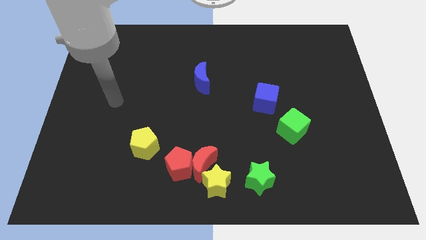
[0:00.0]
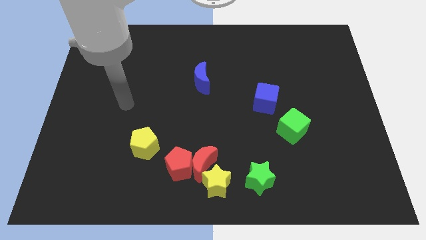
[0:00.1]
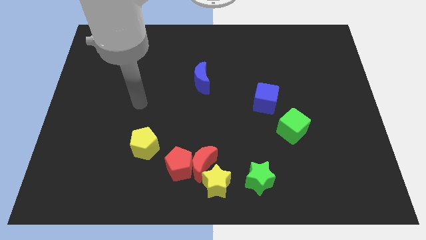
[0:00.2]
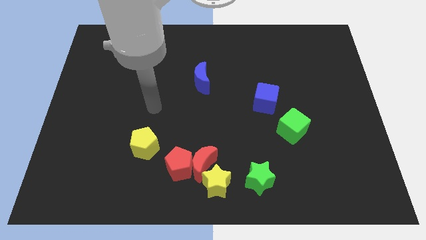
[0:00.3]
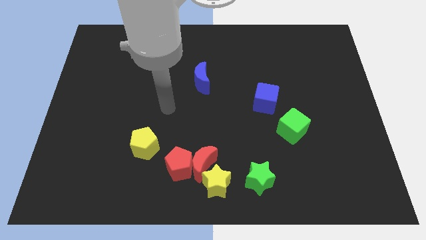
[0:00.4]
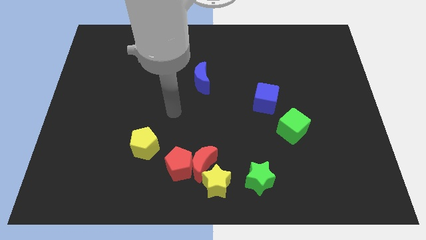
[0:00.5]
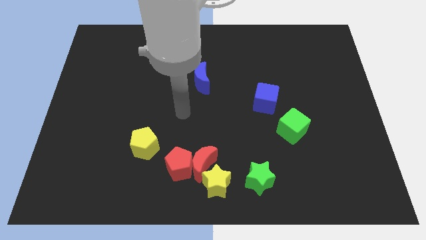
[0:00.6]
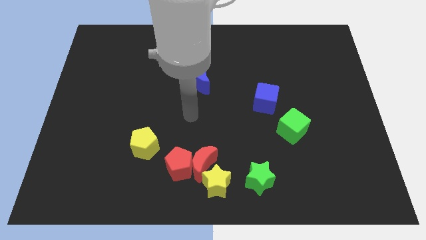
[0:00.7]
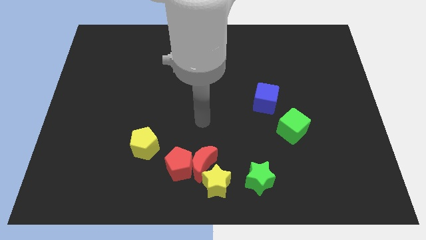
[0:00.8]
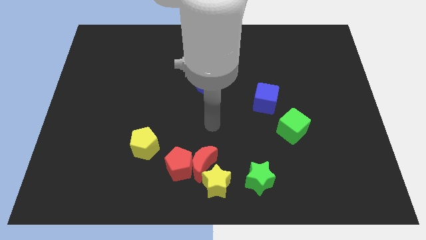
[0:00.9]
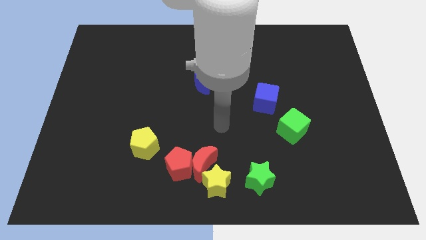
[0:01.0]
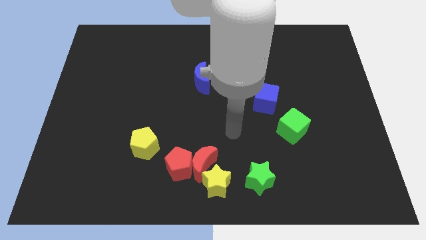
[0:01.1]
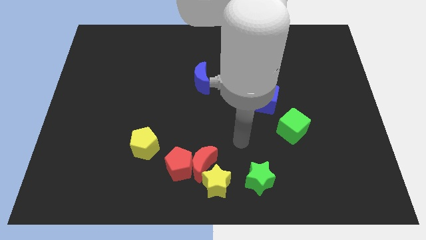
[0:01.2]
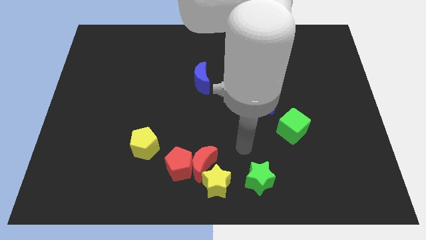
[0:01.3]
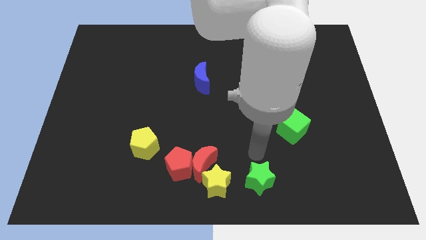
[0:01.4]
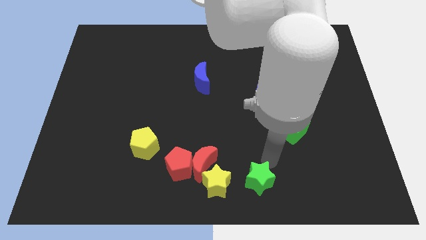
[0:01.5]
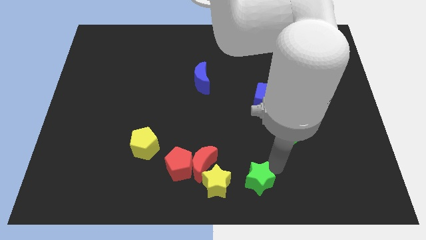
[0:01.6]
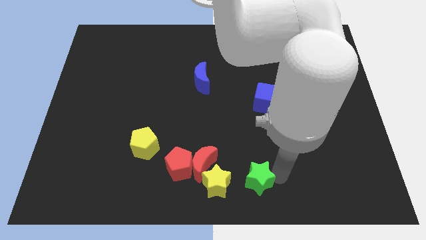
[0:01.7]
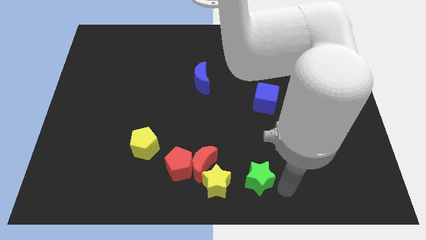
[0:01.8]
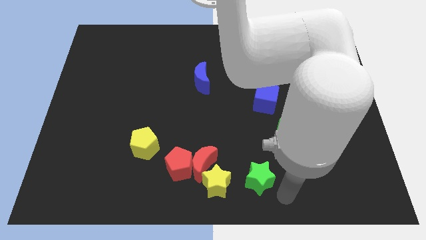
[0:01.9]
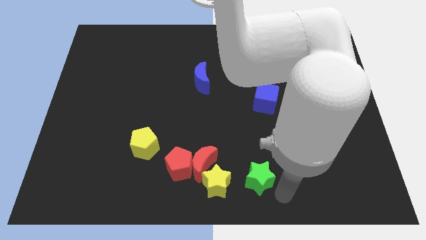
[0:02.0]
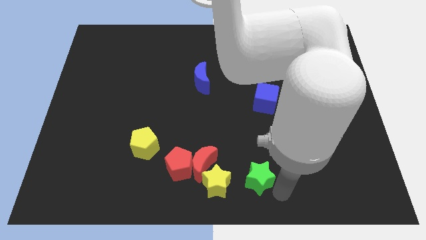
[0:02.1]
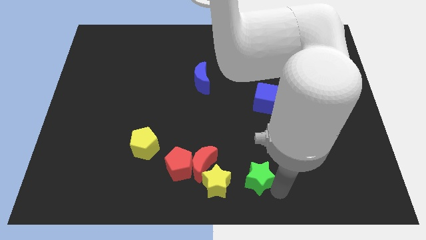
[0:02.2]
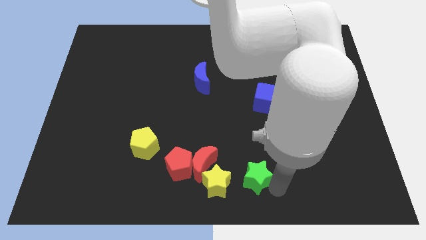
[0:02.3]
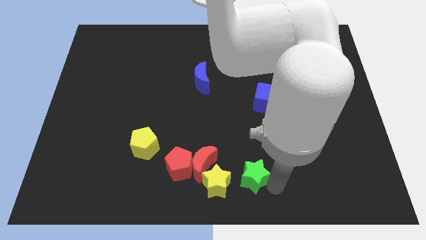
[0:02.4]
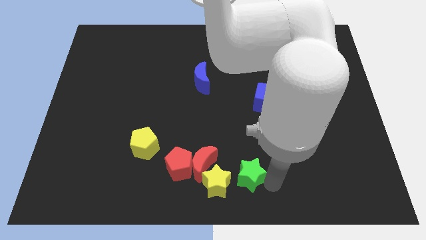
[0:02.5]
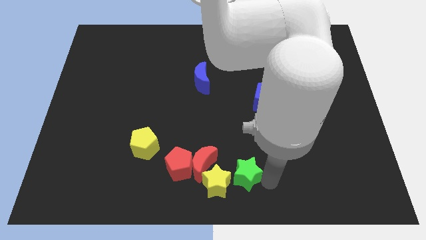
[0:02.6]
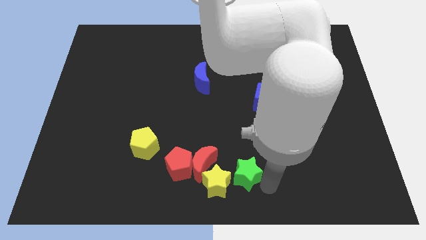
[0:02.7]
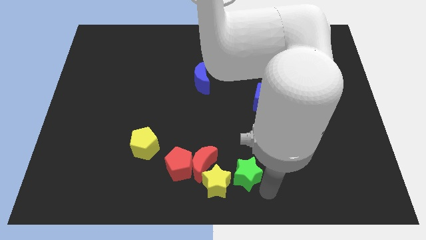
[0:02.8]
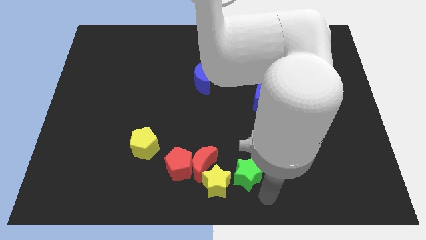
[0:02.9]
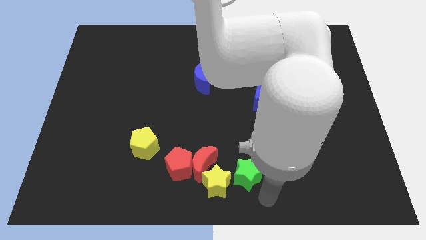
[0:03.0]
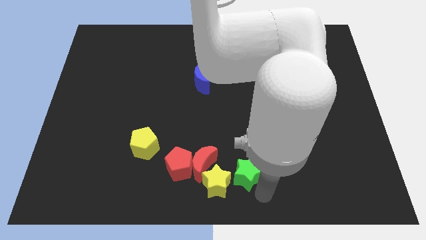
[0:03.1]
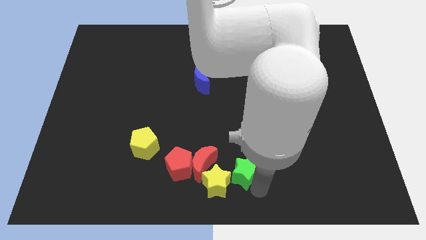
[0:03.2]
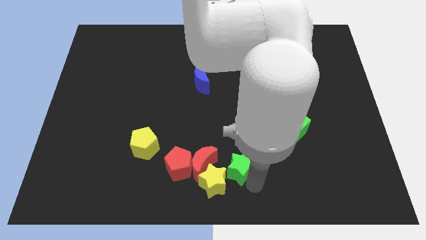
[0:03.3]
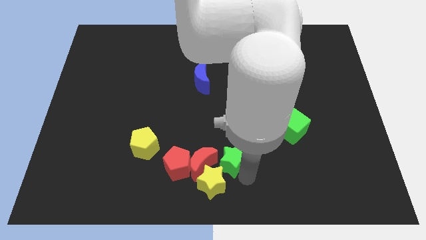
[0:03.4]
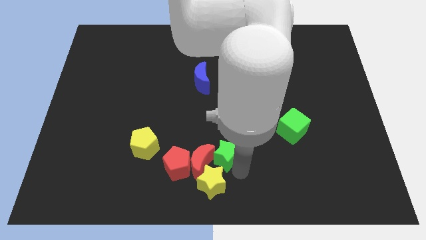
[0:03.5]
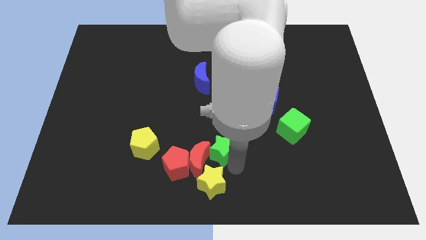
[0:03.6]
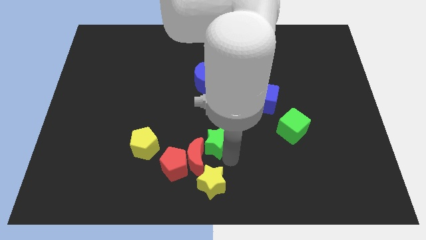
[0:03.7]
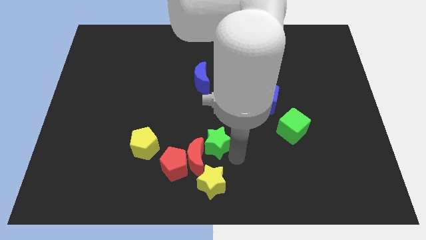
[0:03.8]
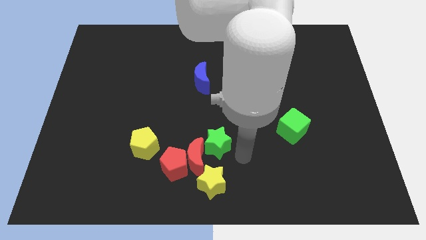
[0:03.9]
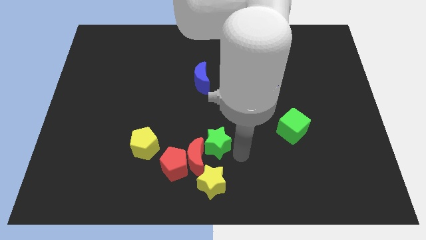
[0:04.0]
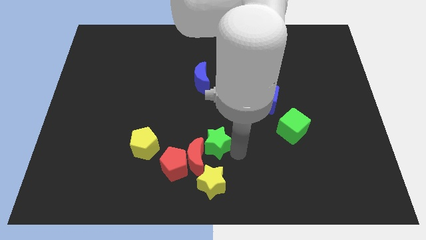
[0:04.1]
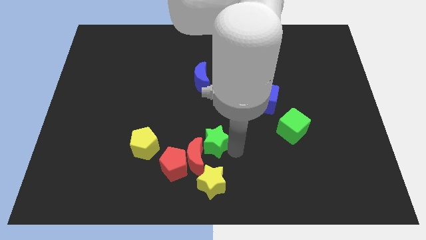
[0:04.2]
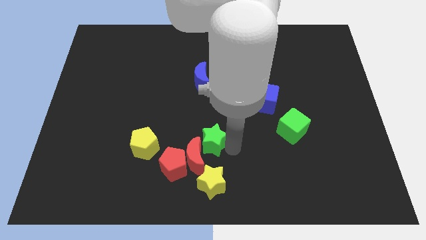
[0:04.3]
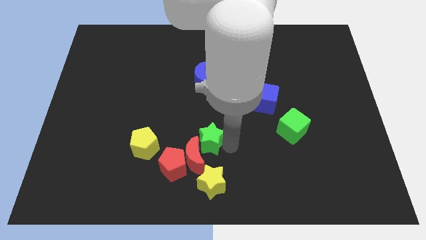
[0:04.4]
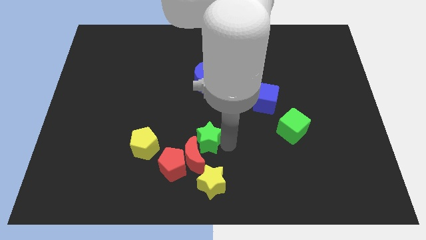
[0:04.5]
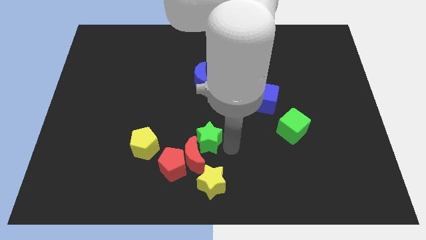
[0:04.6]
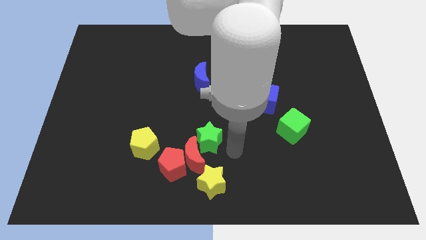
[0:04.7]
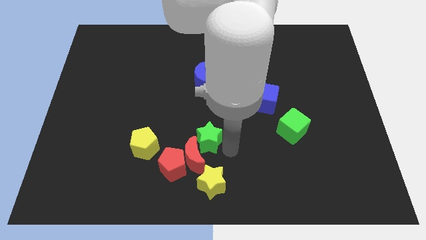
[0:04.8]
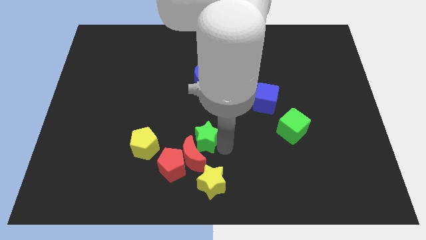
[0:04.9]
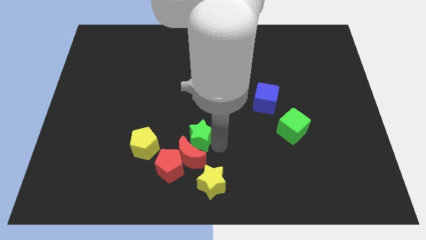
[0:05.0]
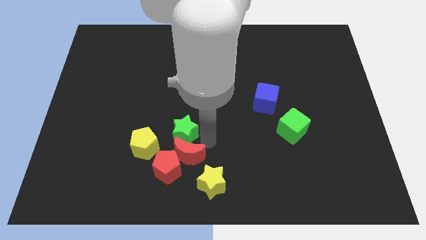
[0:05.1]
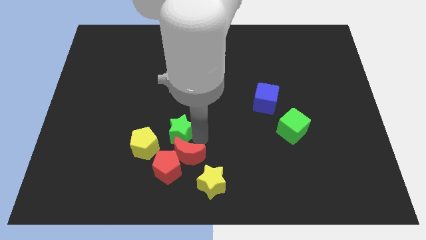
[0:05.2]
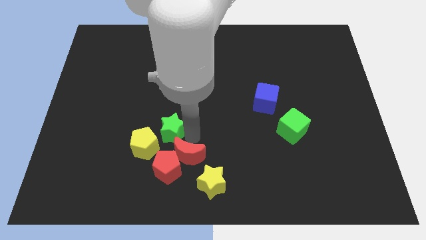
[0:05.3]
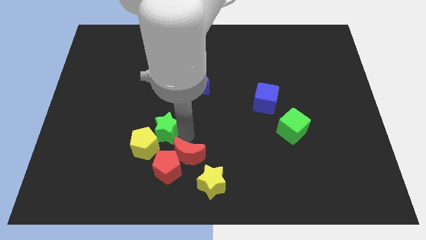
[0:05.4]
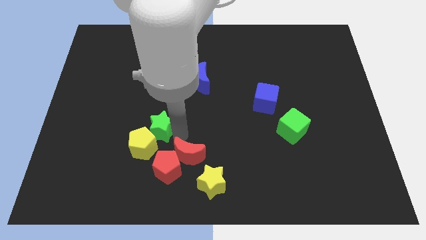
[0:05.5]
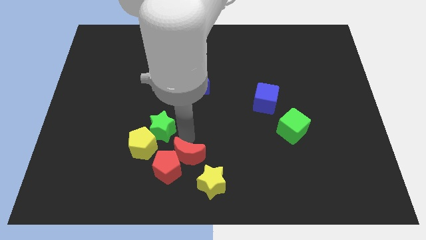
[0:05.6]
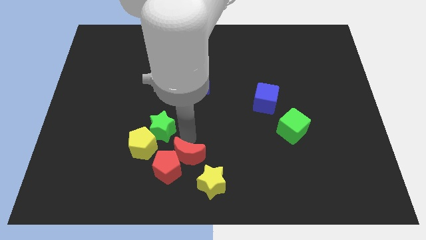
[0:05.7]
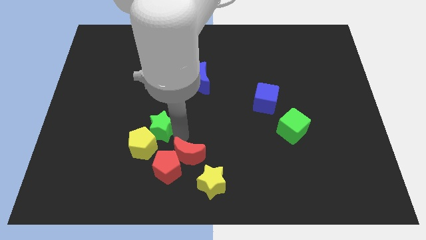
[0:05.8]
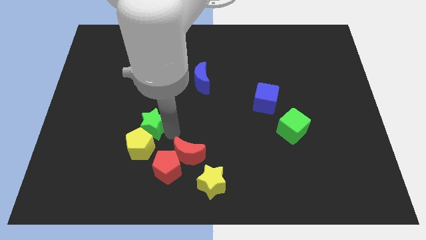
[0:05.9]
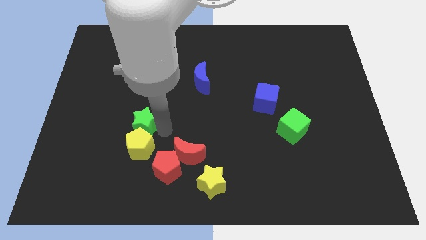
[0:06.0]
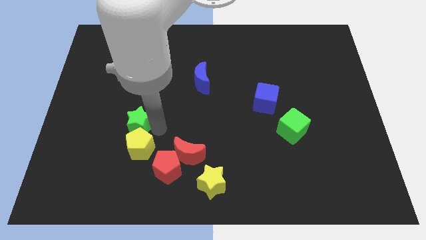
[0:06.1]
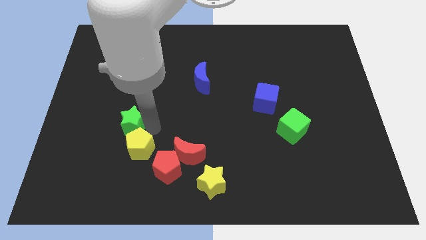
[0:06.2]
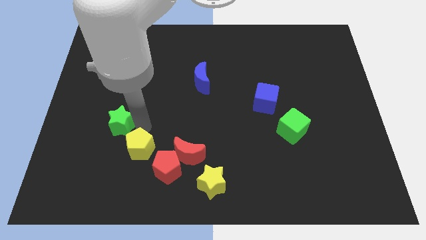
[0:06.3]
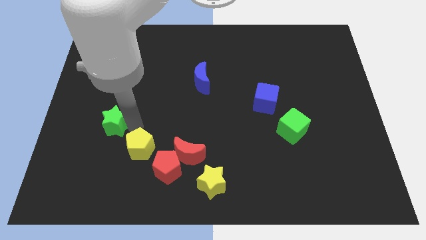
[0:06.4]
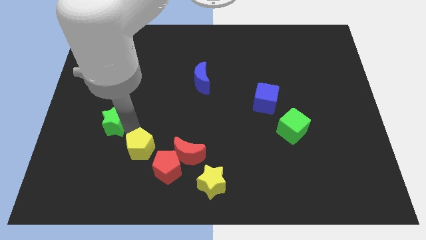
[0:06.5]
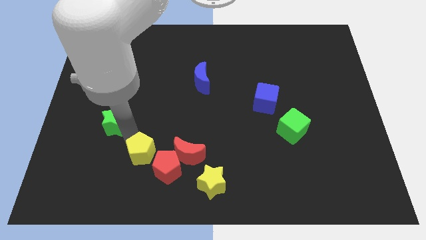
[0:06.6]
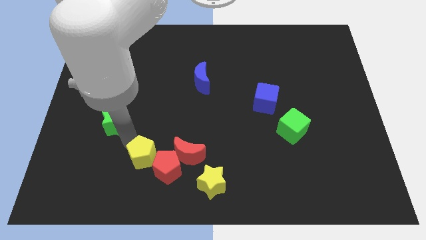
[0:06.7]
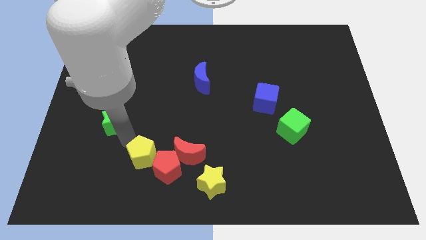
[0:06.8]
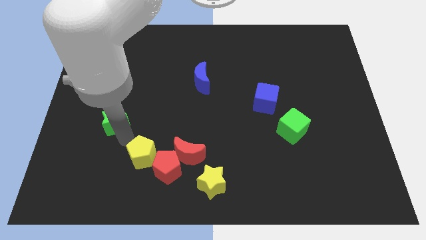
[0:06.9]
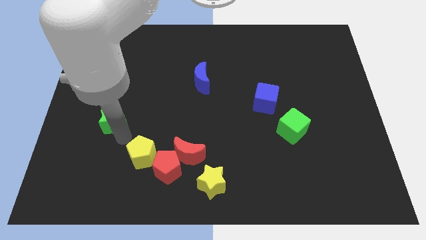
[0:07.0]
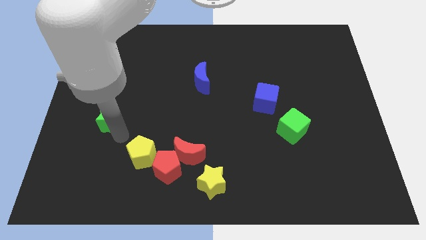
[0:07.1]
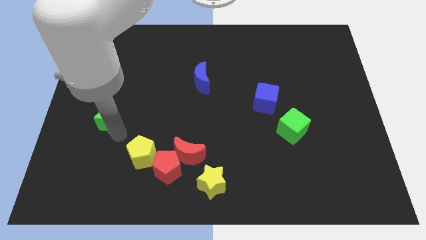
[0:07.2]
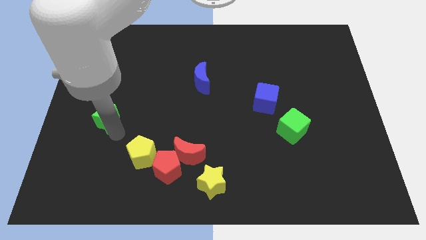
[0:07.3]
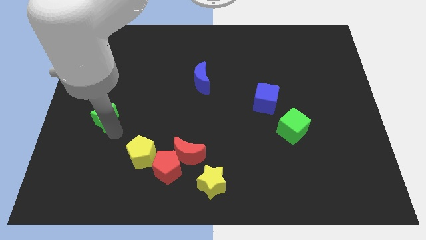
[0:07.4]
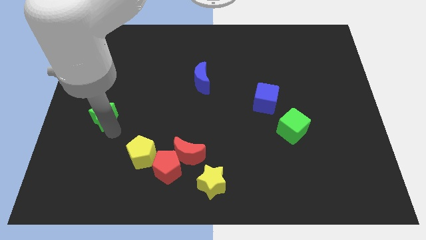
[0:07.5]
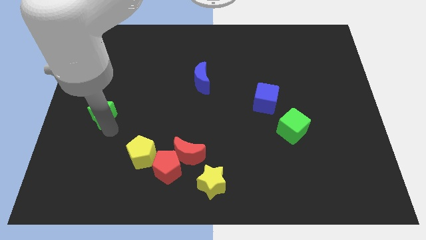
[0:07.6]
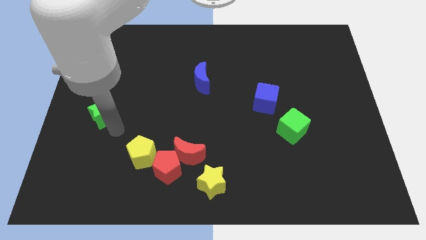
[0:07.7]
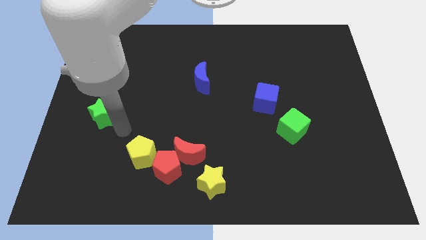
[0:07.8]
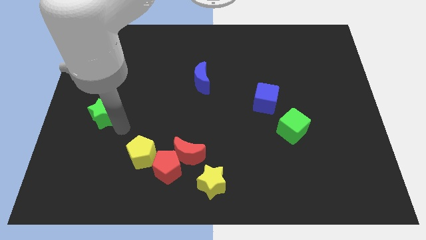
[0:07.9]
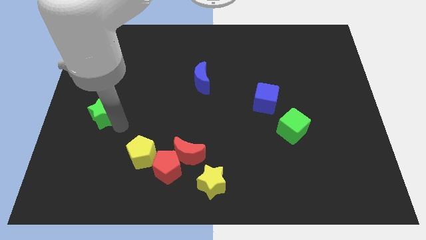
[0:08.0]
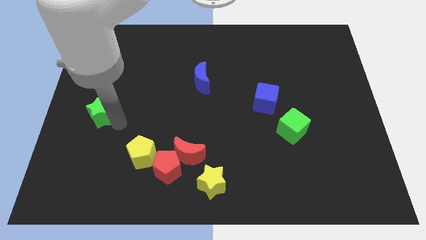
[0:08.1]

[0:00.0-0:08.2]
push the green star to the left side
